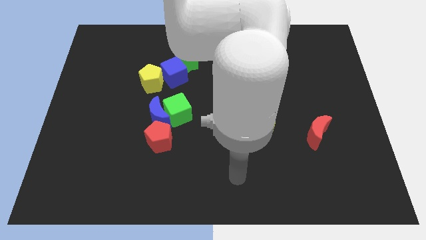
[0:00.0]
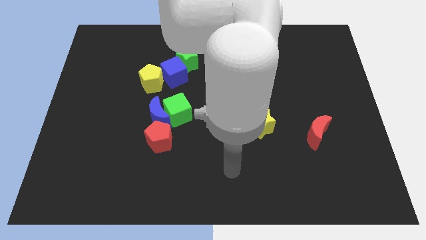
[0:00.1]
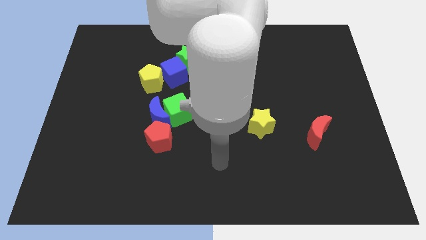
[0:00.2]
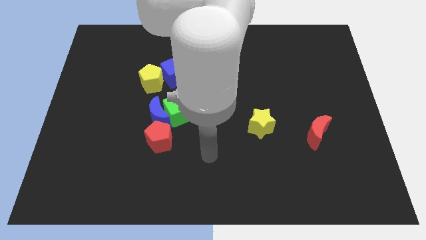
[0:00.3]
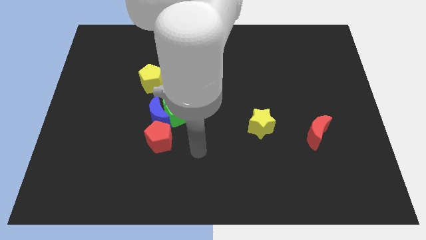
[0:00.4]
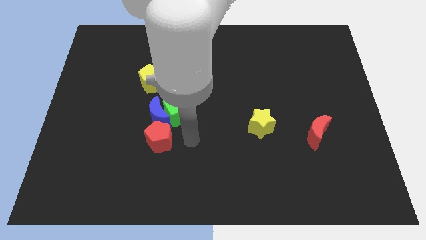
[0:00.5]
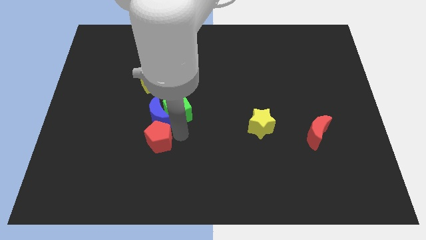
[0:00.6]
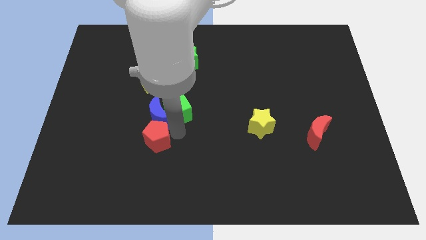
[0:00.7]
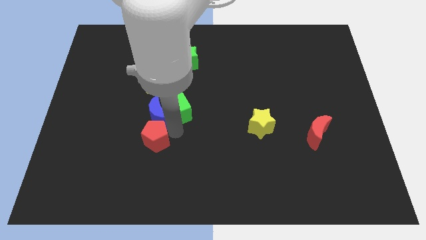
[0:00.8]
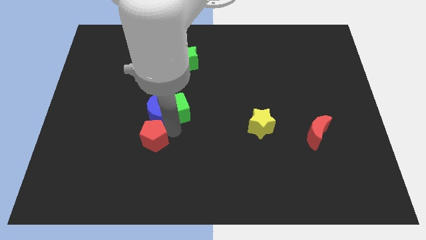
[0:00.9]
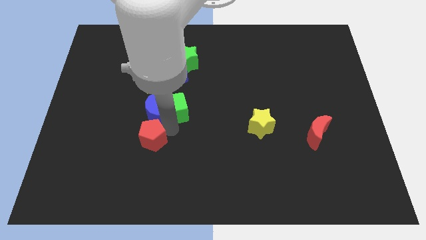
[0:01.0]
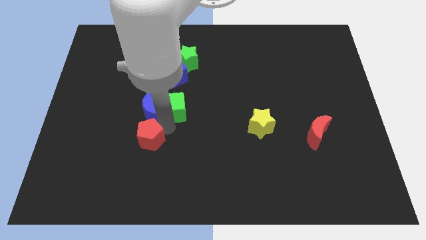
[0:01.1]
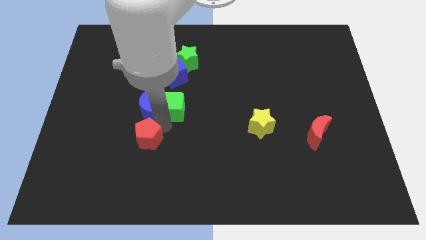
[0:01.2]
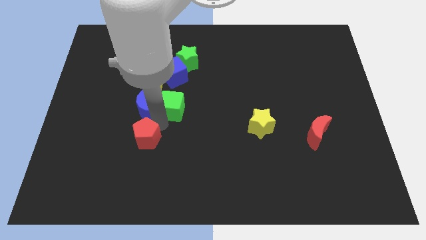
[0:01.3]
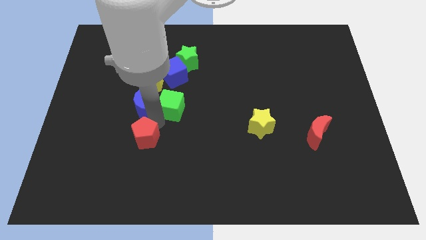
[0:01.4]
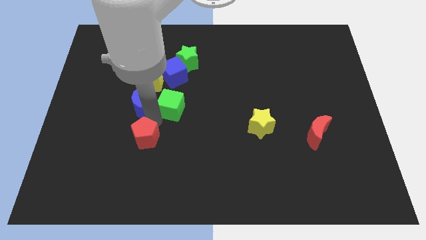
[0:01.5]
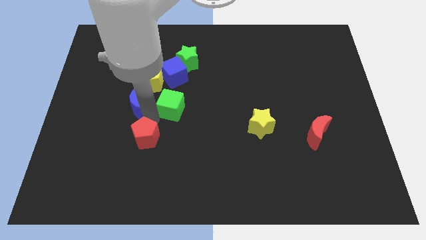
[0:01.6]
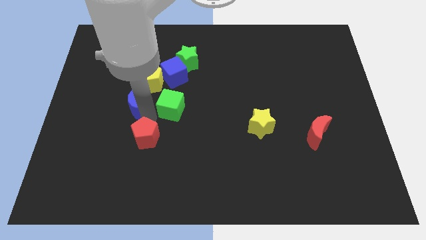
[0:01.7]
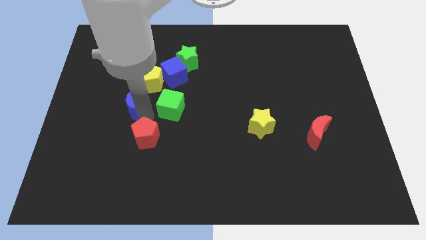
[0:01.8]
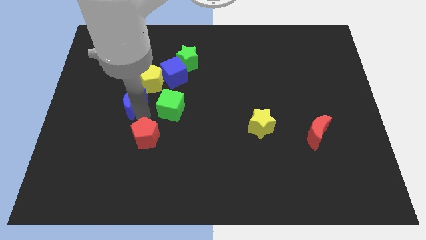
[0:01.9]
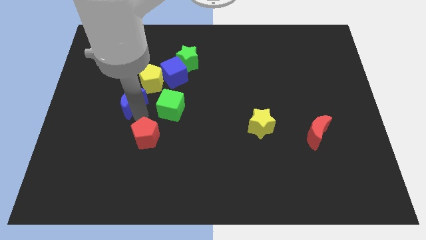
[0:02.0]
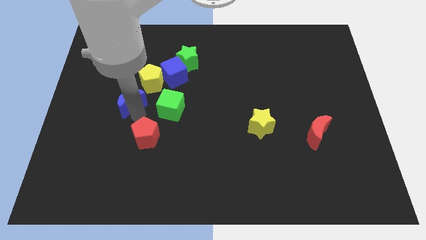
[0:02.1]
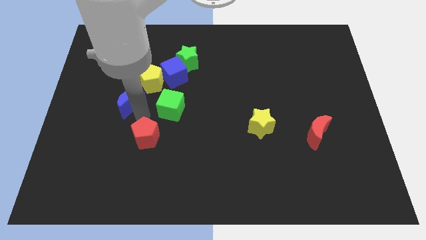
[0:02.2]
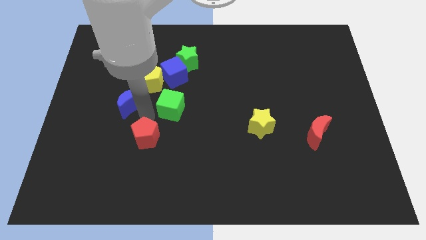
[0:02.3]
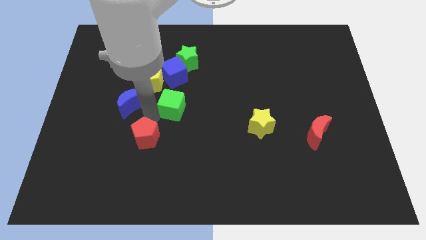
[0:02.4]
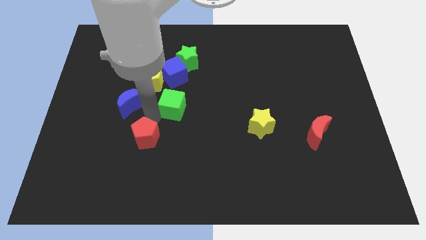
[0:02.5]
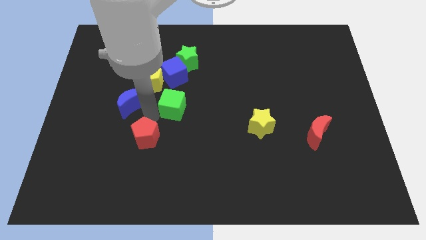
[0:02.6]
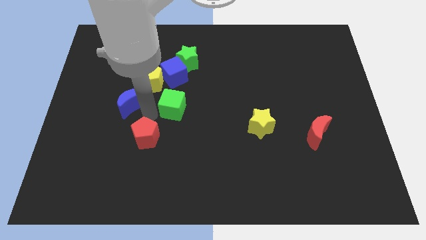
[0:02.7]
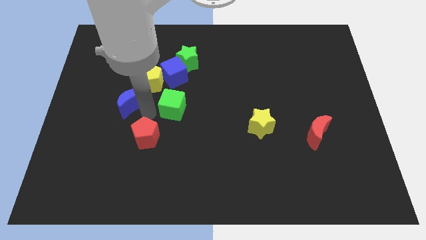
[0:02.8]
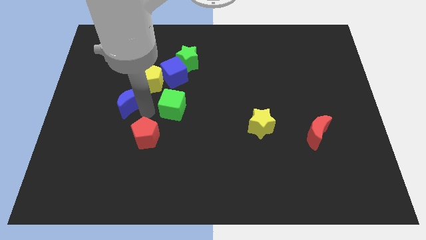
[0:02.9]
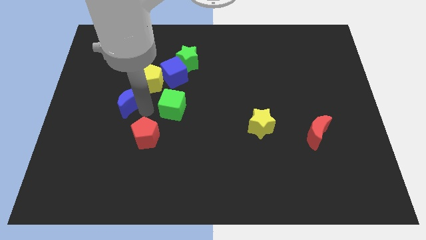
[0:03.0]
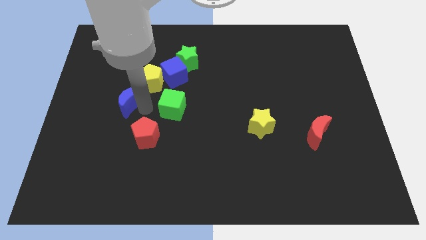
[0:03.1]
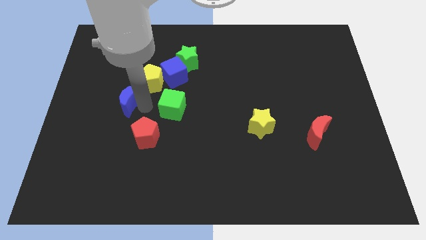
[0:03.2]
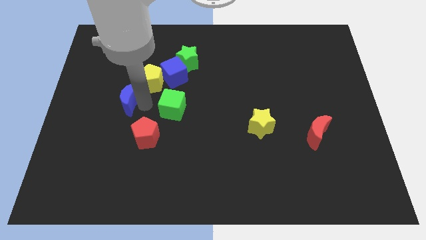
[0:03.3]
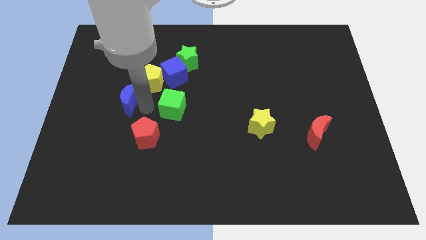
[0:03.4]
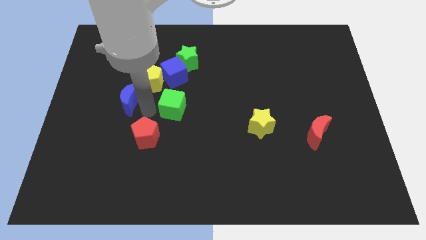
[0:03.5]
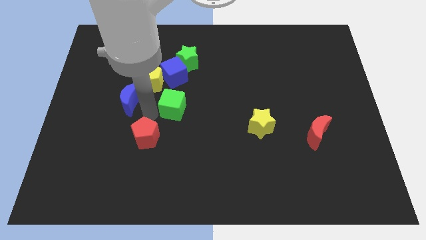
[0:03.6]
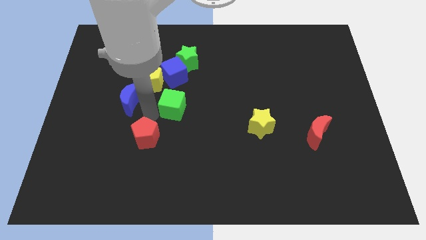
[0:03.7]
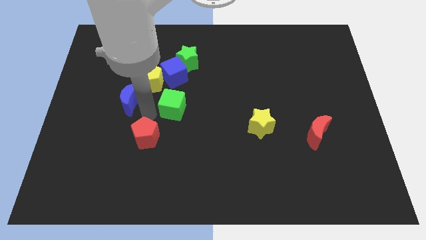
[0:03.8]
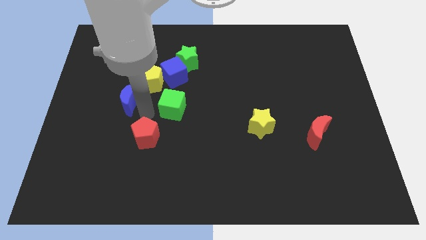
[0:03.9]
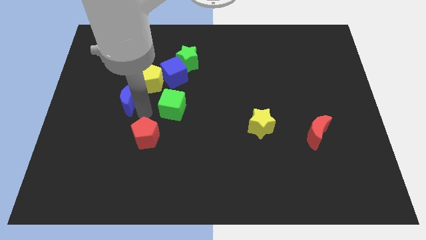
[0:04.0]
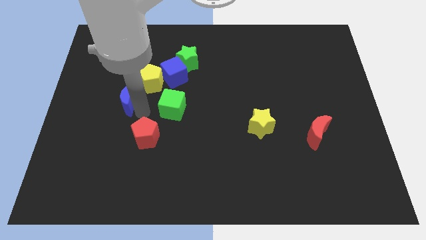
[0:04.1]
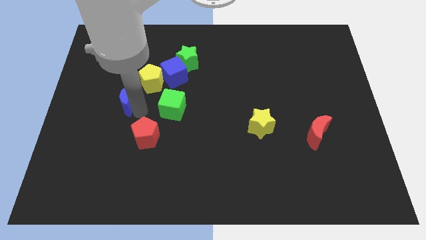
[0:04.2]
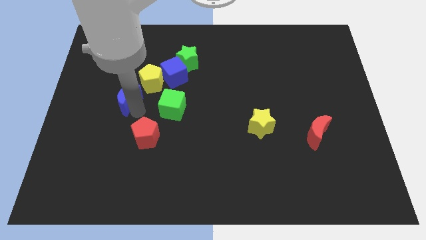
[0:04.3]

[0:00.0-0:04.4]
move the blue moon away from the green cube and red pentagon

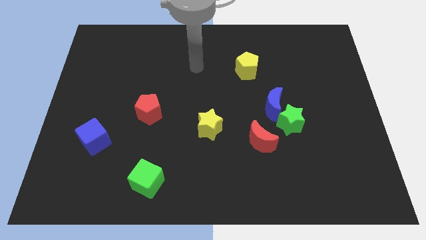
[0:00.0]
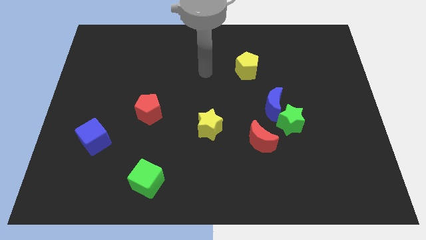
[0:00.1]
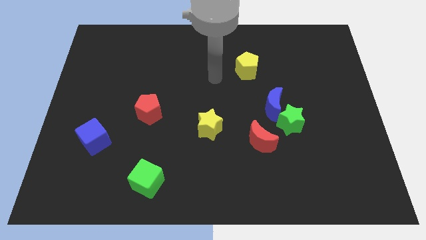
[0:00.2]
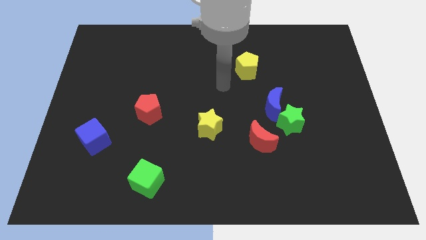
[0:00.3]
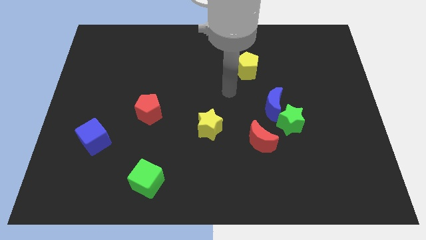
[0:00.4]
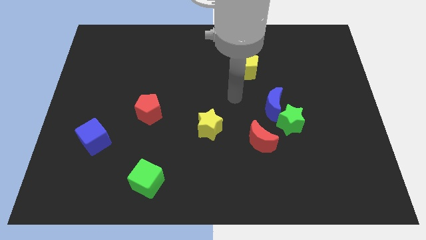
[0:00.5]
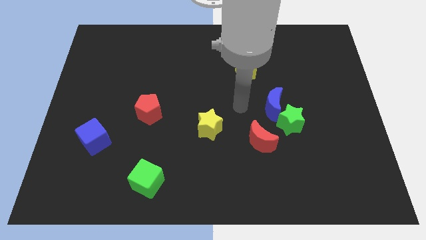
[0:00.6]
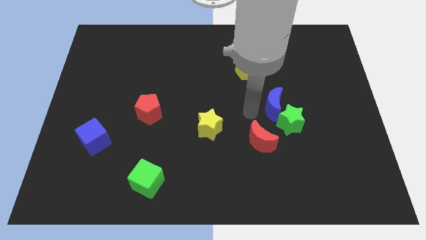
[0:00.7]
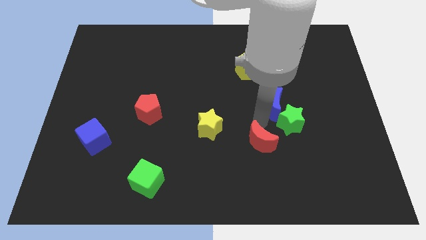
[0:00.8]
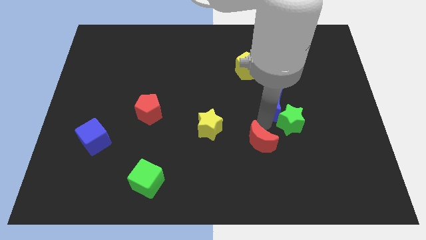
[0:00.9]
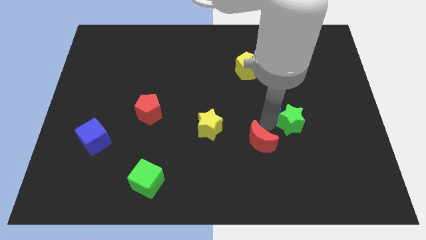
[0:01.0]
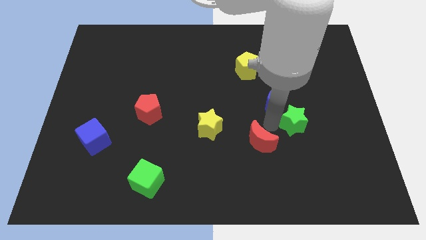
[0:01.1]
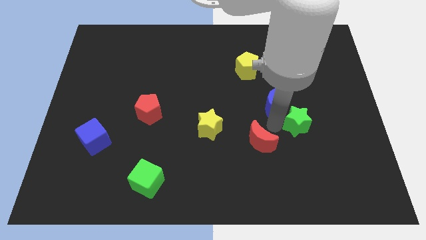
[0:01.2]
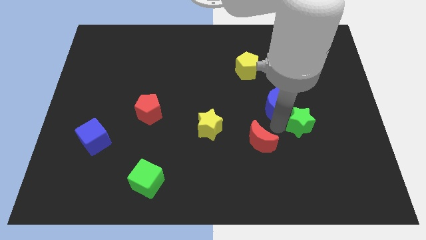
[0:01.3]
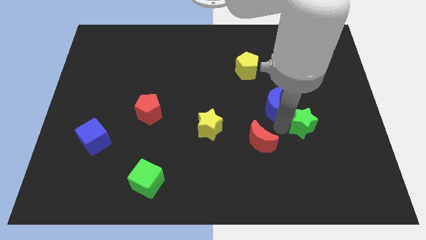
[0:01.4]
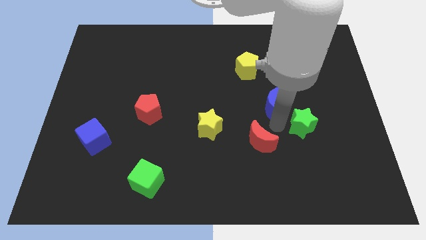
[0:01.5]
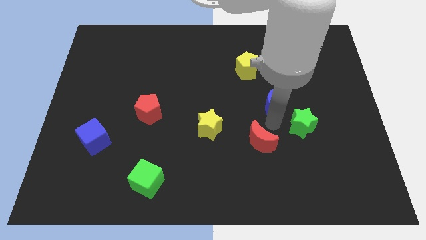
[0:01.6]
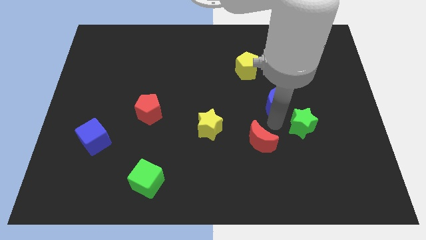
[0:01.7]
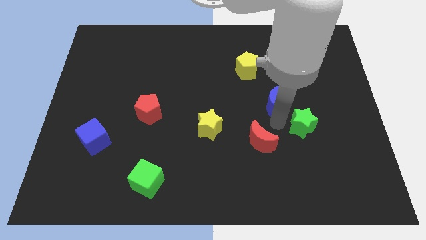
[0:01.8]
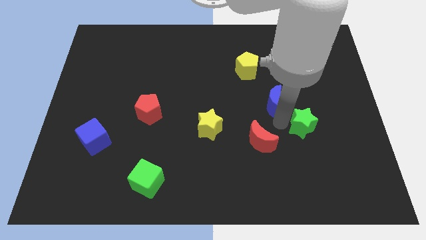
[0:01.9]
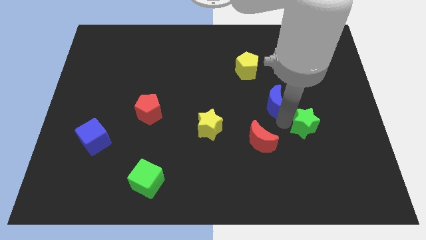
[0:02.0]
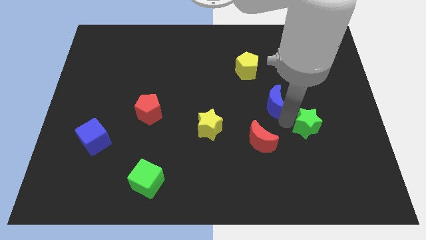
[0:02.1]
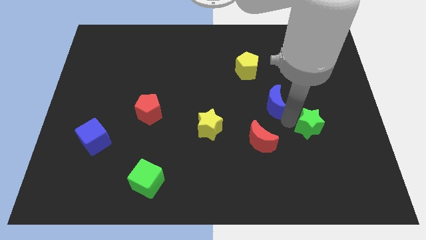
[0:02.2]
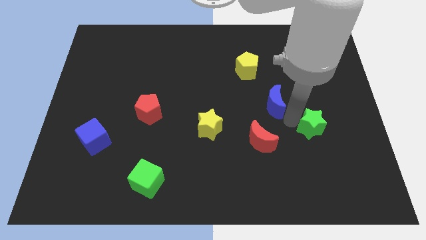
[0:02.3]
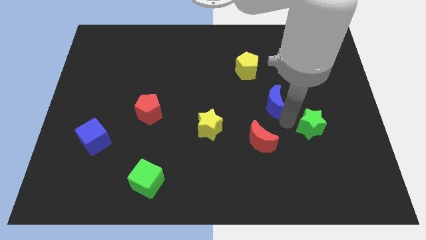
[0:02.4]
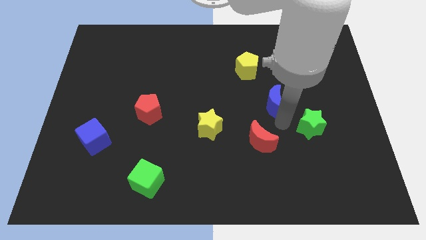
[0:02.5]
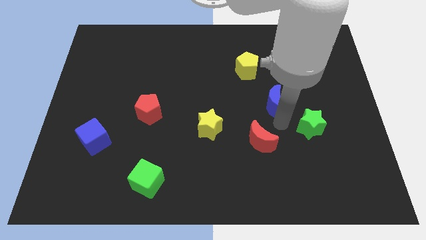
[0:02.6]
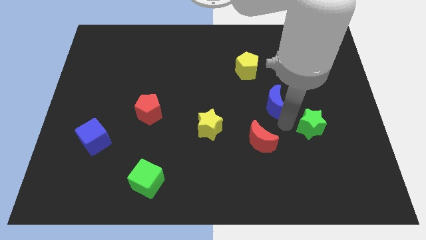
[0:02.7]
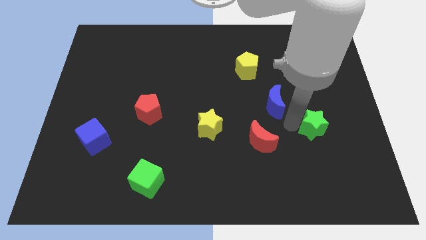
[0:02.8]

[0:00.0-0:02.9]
pull the green star apart from the blue moon and red moon

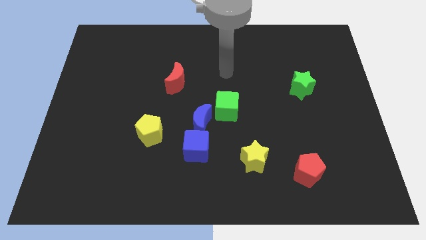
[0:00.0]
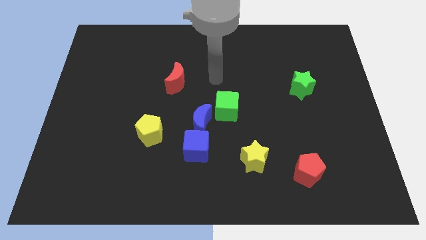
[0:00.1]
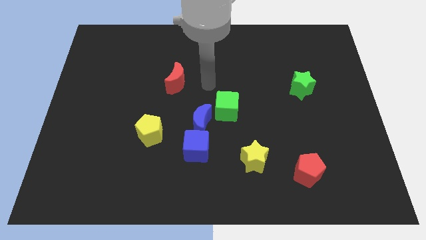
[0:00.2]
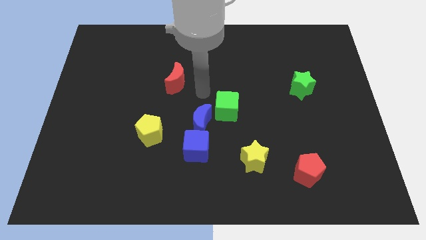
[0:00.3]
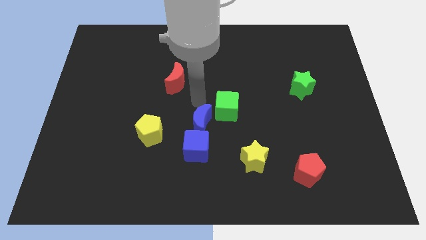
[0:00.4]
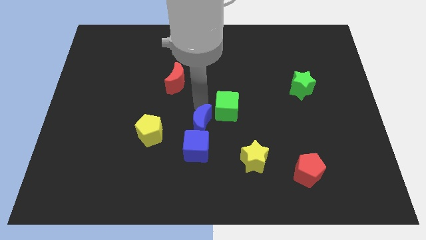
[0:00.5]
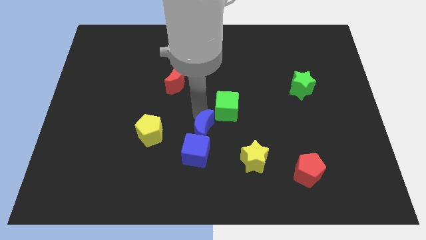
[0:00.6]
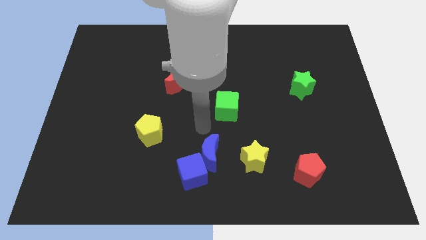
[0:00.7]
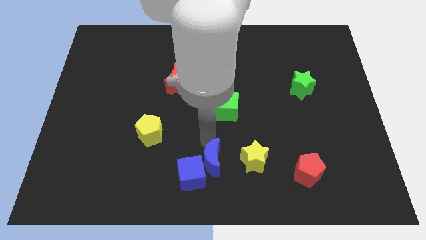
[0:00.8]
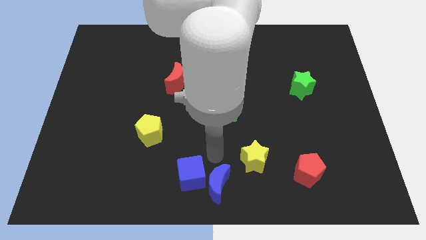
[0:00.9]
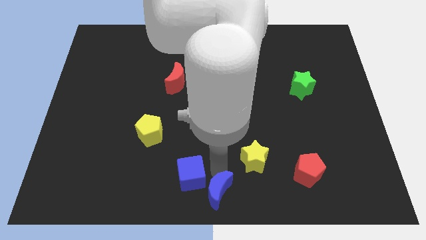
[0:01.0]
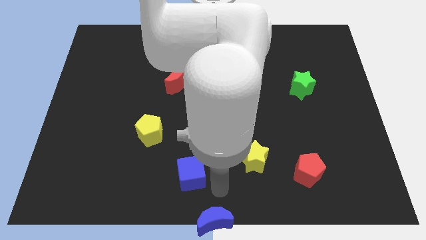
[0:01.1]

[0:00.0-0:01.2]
separate the blue cube from the blue moon

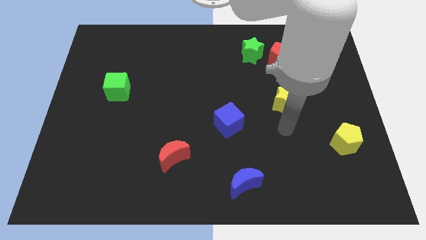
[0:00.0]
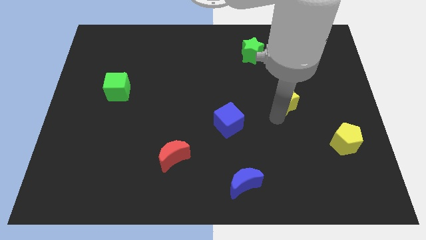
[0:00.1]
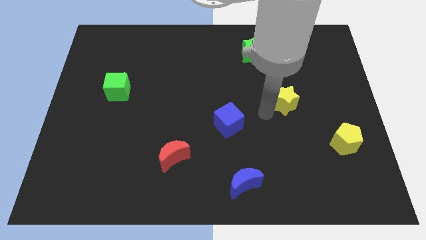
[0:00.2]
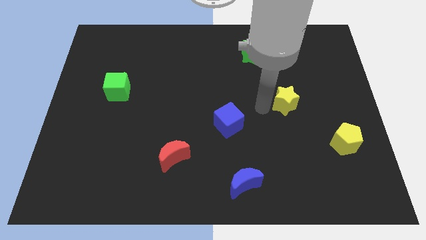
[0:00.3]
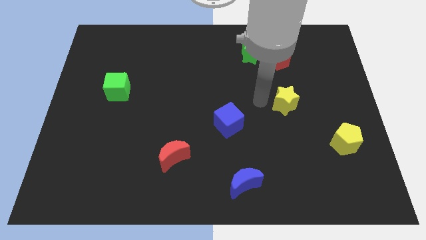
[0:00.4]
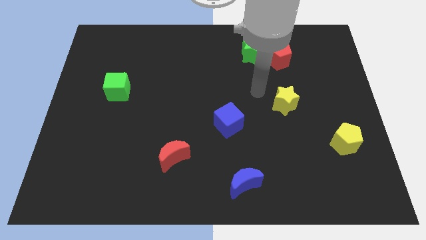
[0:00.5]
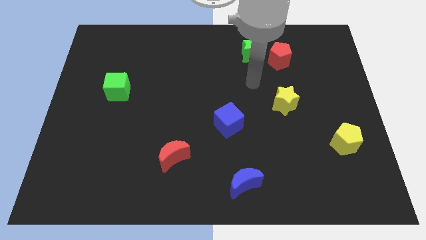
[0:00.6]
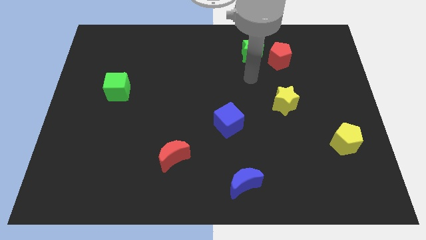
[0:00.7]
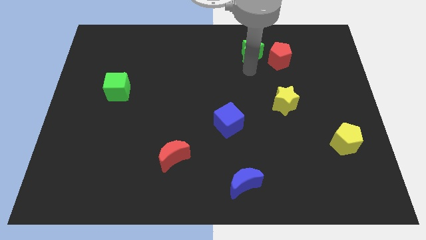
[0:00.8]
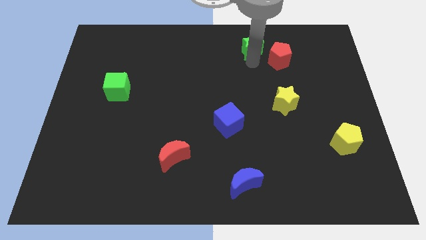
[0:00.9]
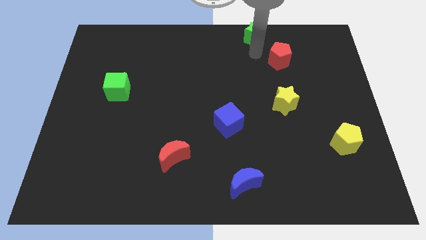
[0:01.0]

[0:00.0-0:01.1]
separate the red pentagon from the green star
